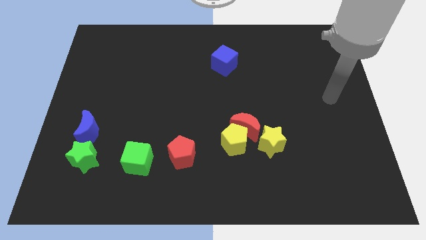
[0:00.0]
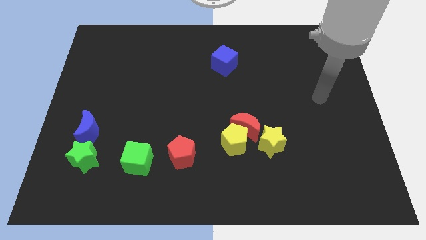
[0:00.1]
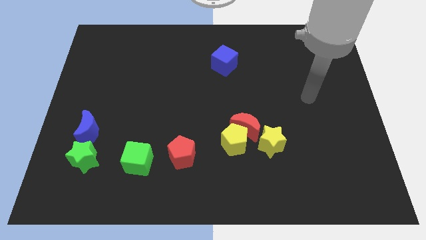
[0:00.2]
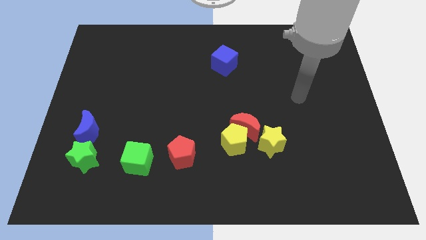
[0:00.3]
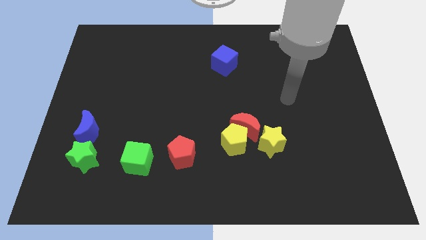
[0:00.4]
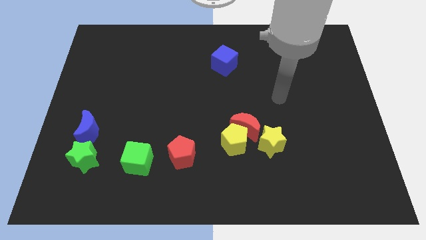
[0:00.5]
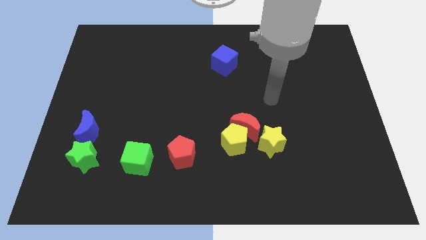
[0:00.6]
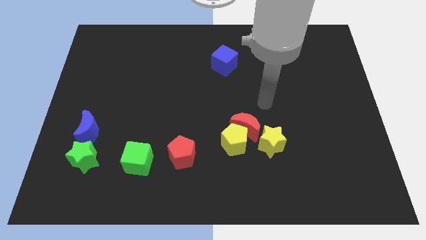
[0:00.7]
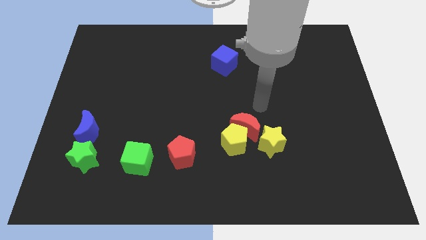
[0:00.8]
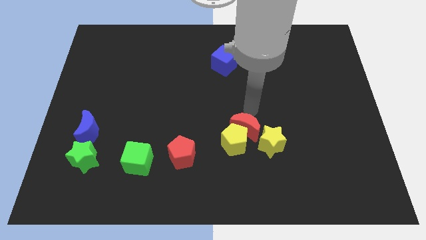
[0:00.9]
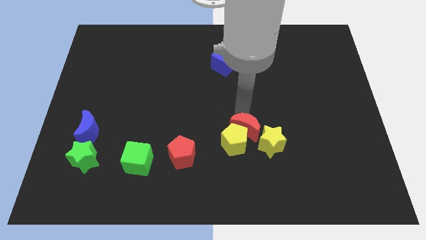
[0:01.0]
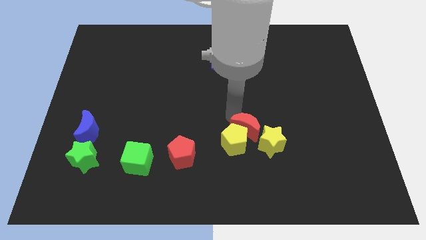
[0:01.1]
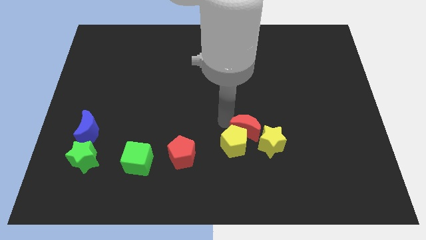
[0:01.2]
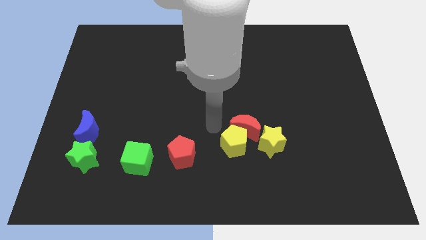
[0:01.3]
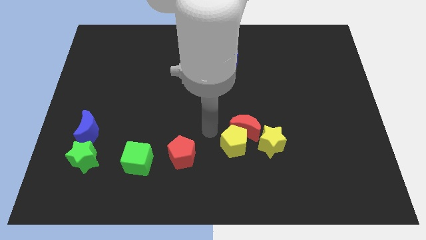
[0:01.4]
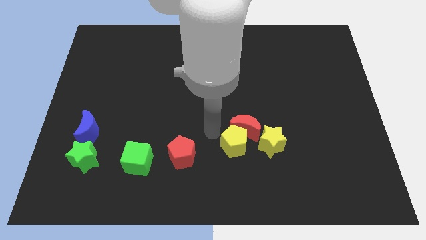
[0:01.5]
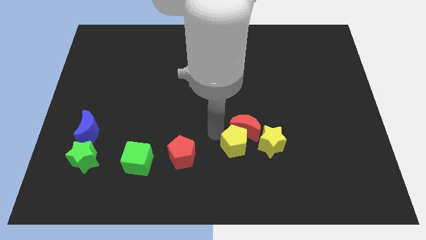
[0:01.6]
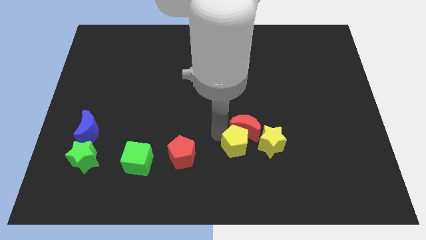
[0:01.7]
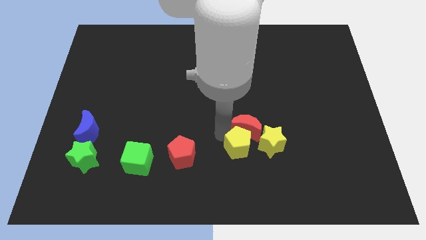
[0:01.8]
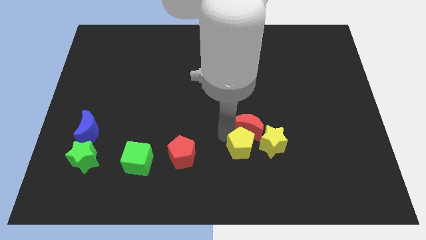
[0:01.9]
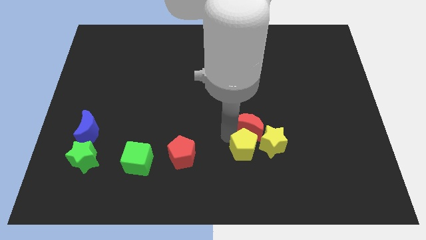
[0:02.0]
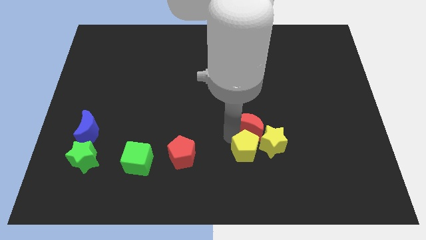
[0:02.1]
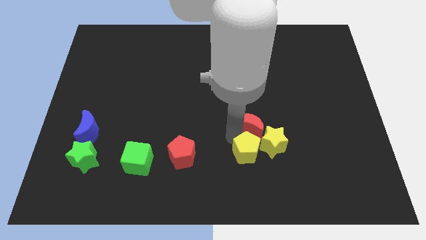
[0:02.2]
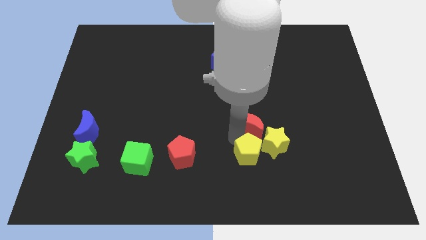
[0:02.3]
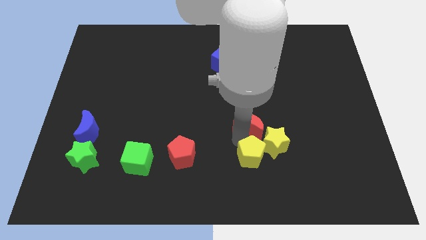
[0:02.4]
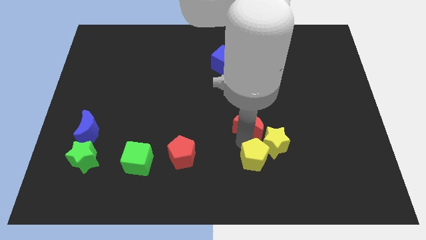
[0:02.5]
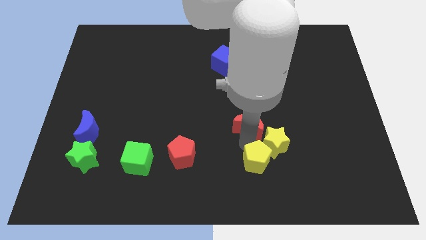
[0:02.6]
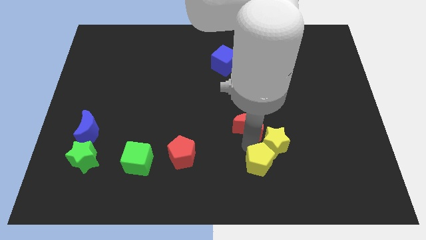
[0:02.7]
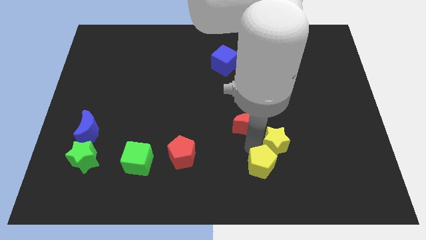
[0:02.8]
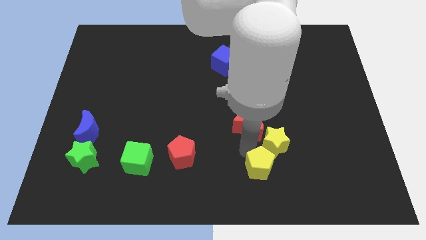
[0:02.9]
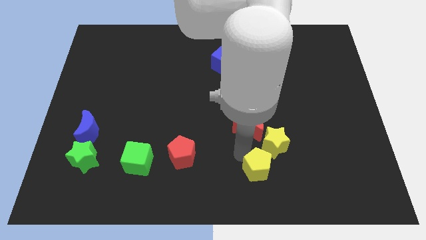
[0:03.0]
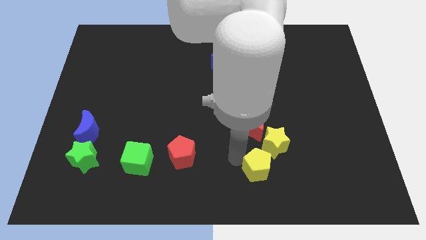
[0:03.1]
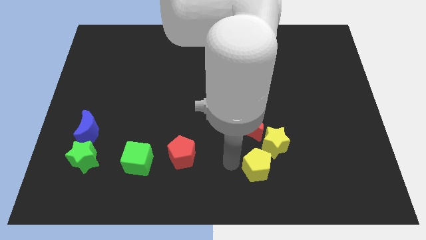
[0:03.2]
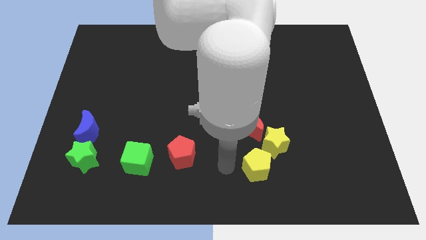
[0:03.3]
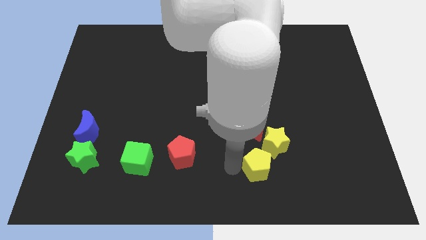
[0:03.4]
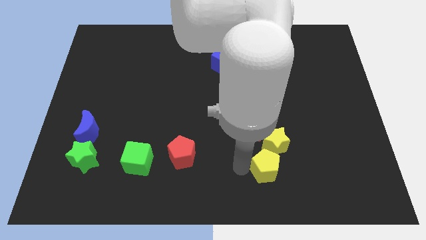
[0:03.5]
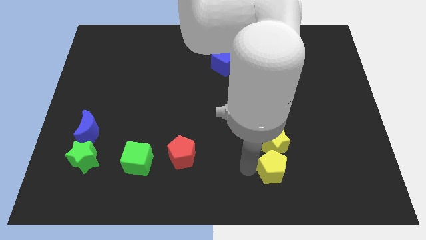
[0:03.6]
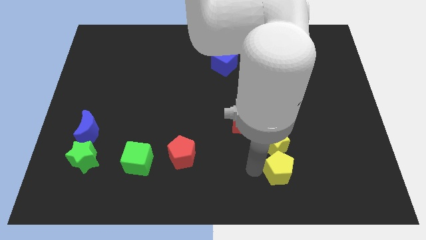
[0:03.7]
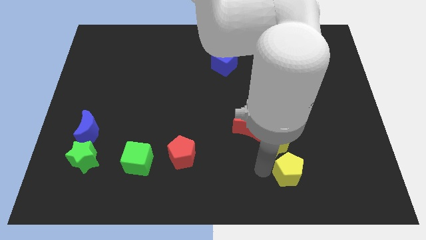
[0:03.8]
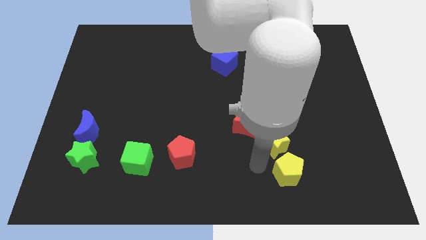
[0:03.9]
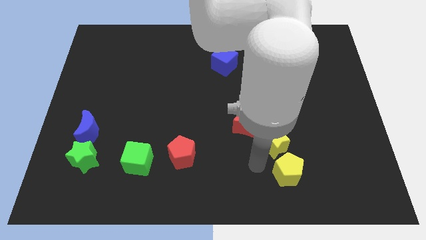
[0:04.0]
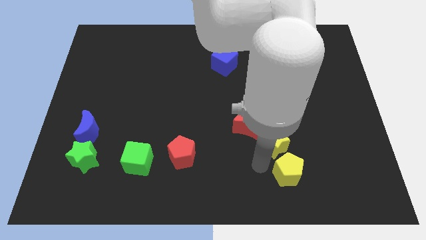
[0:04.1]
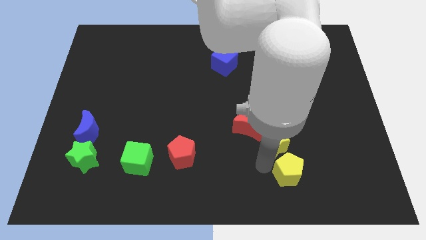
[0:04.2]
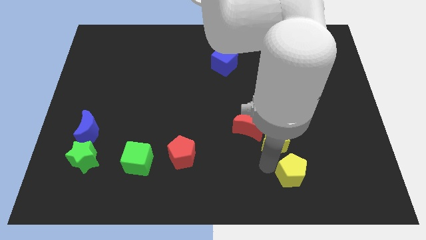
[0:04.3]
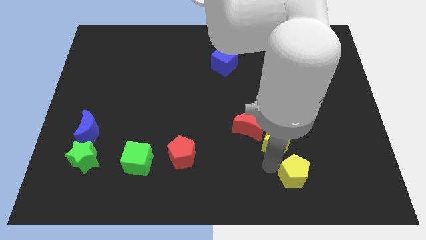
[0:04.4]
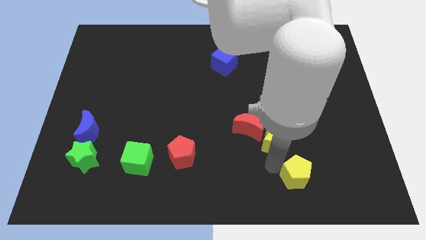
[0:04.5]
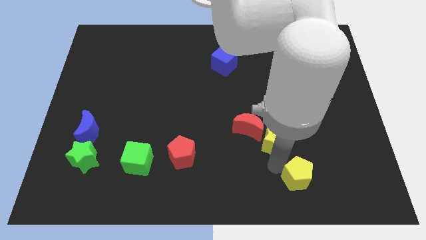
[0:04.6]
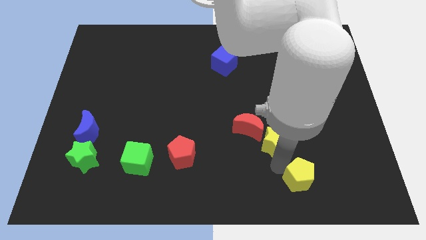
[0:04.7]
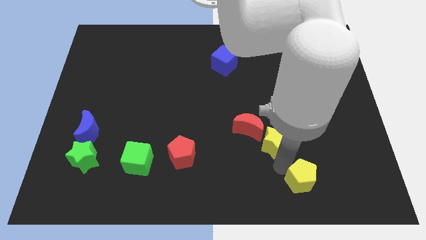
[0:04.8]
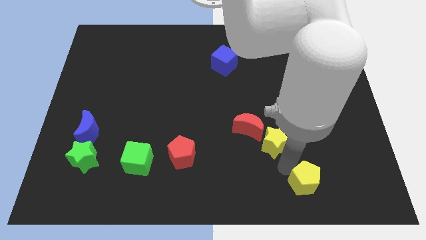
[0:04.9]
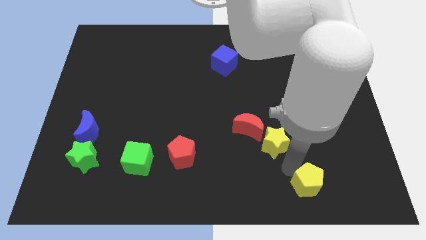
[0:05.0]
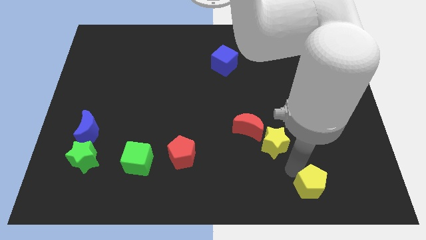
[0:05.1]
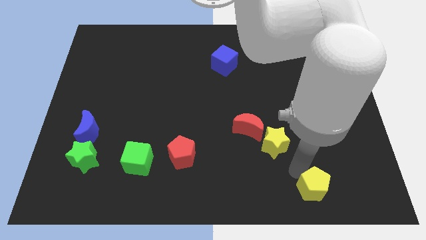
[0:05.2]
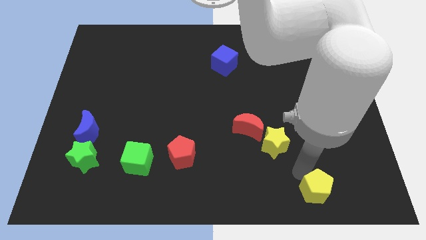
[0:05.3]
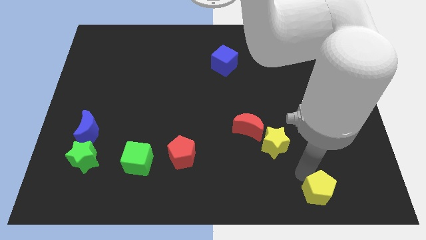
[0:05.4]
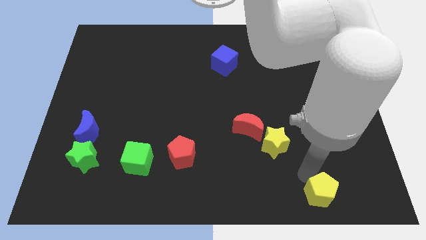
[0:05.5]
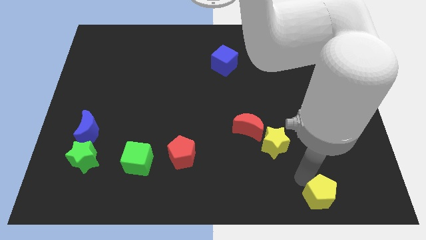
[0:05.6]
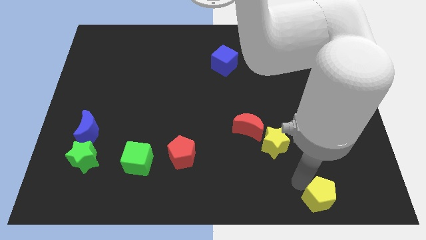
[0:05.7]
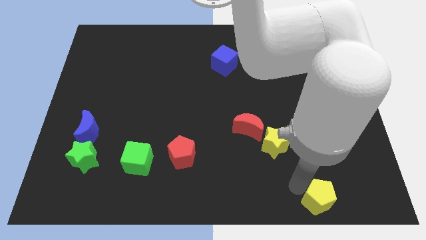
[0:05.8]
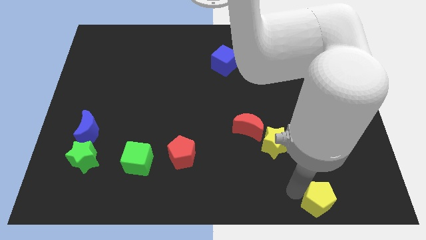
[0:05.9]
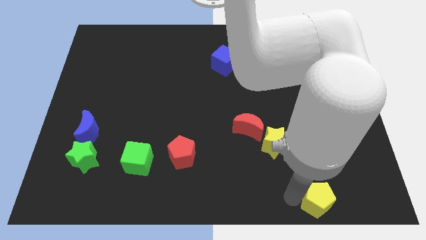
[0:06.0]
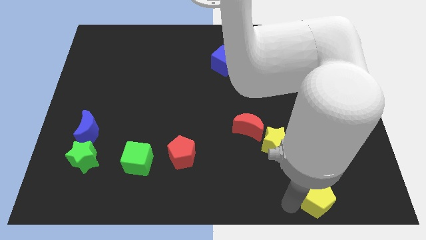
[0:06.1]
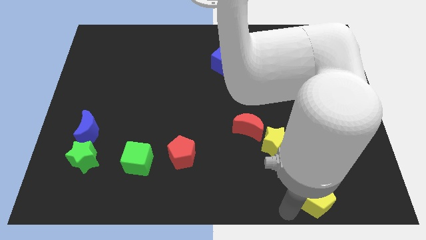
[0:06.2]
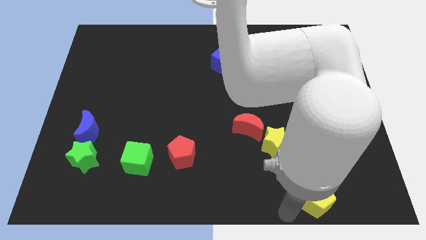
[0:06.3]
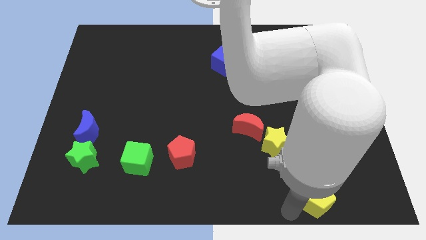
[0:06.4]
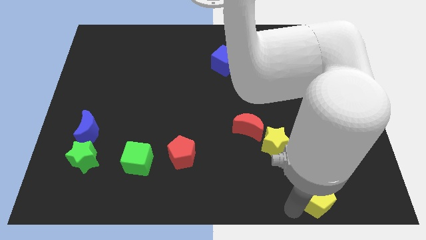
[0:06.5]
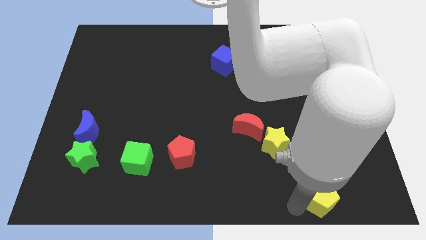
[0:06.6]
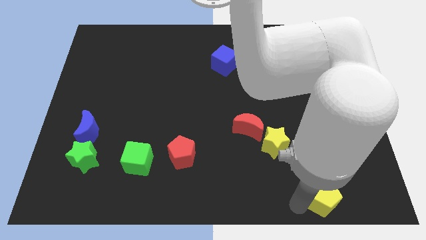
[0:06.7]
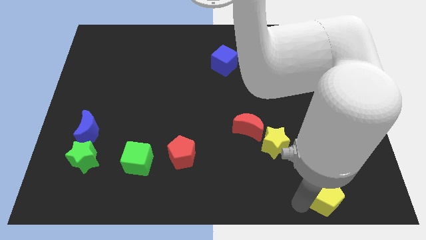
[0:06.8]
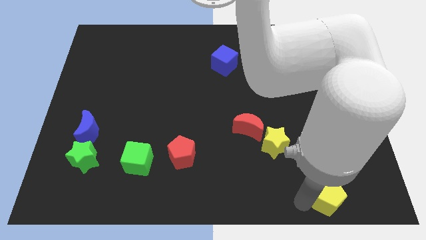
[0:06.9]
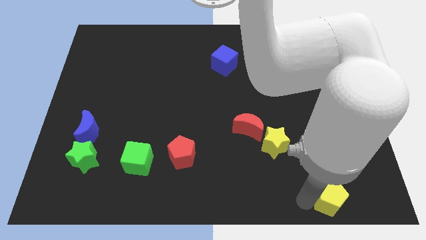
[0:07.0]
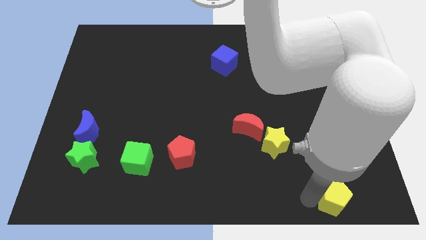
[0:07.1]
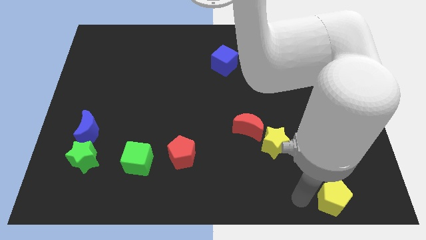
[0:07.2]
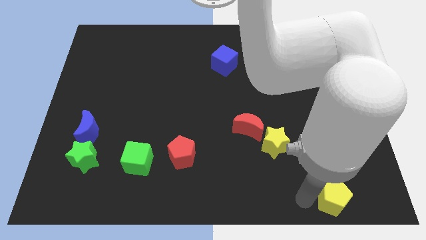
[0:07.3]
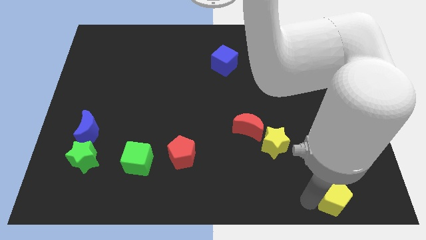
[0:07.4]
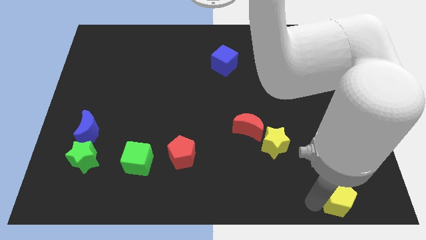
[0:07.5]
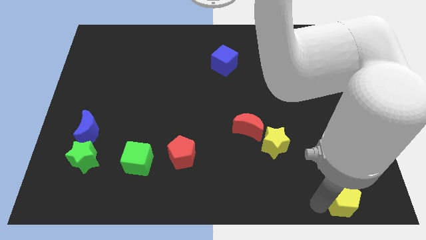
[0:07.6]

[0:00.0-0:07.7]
push the yellow pentagon to the bottom right
